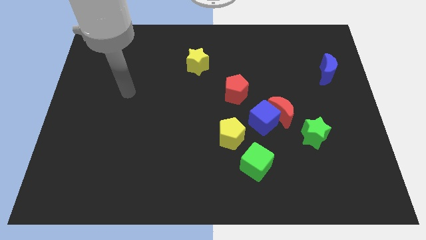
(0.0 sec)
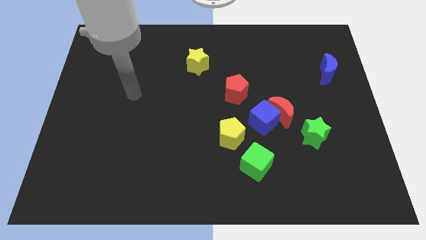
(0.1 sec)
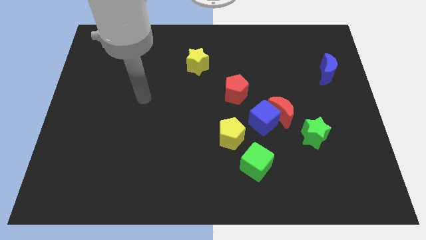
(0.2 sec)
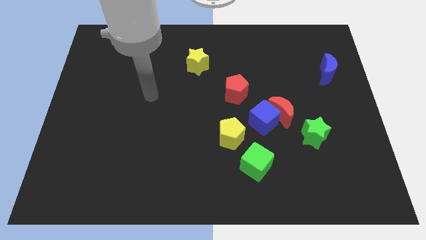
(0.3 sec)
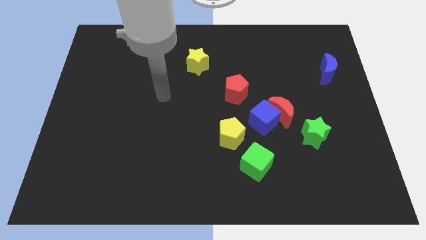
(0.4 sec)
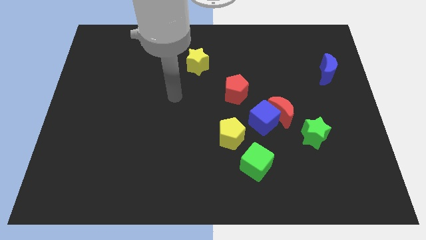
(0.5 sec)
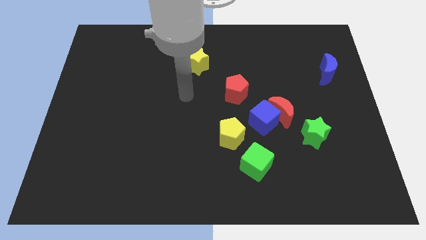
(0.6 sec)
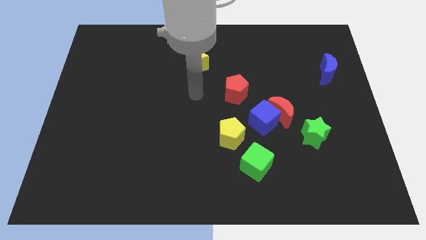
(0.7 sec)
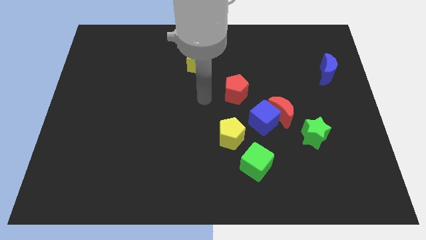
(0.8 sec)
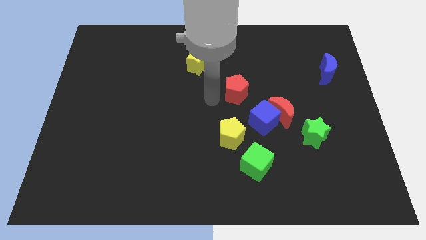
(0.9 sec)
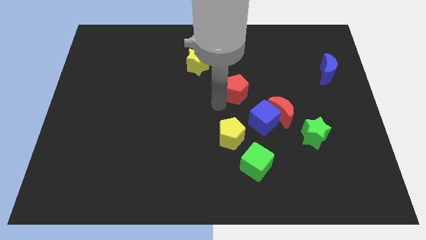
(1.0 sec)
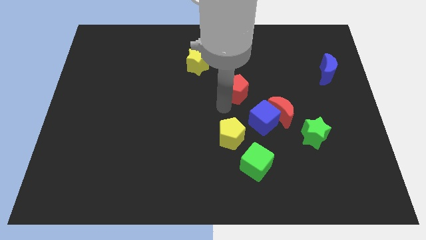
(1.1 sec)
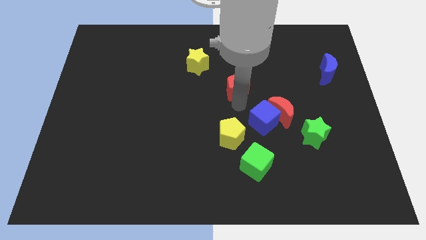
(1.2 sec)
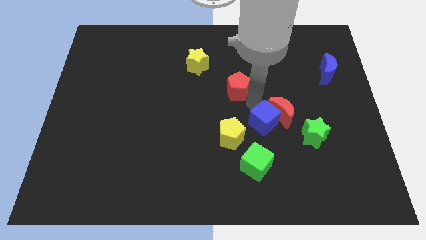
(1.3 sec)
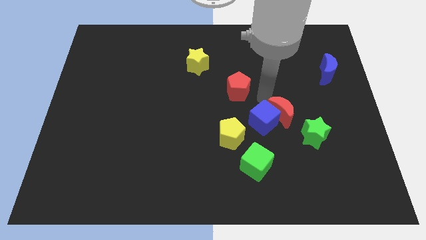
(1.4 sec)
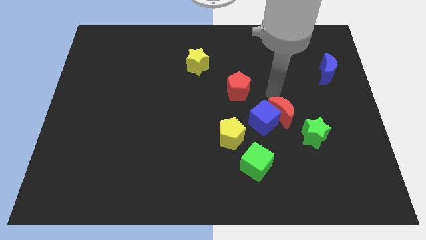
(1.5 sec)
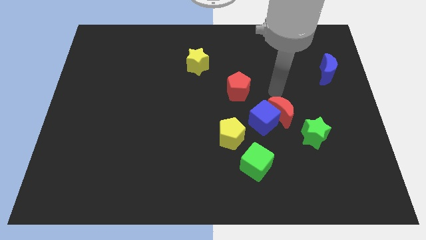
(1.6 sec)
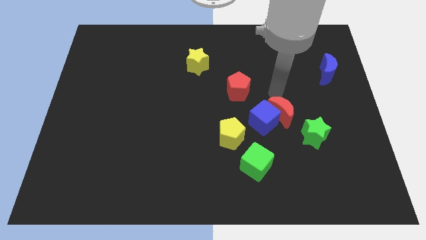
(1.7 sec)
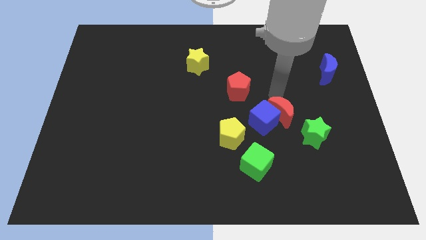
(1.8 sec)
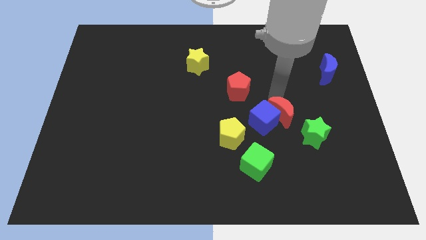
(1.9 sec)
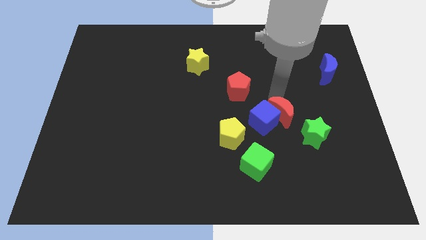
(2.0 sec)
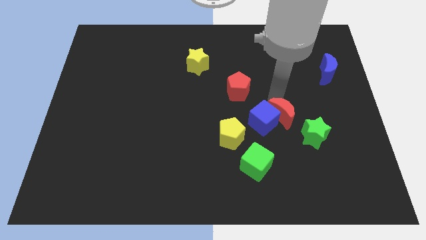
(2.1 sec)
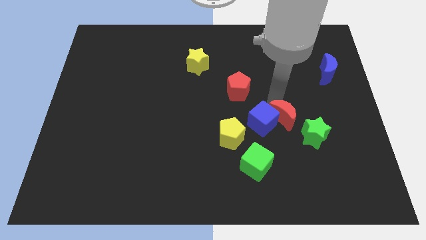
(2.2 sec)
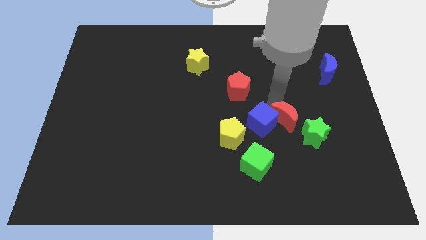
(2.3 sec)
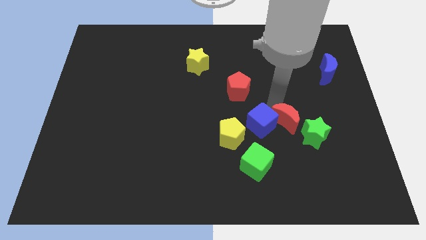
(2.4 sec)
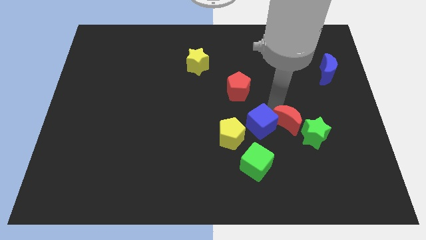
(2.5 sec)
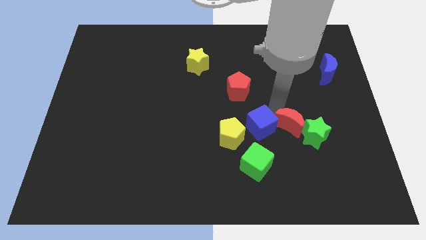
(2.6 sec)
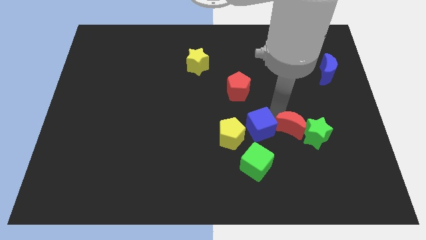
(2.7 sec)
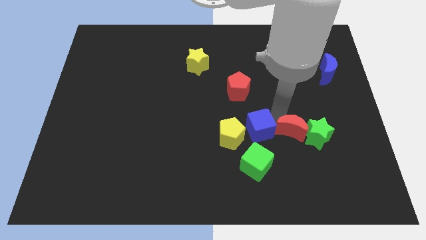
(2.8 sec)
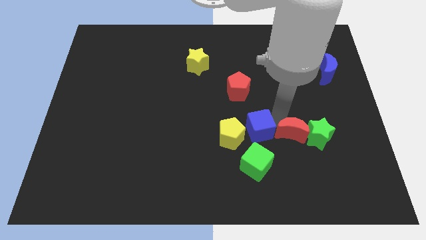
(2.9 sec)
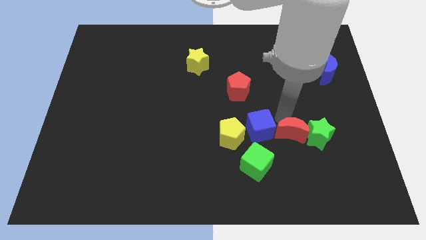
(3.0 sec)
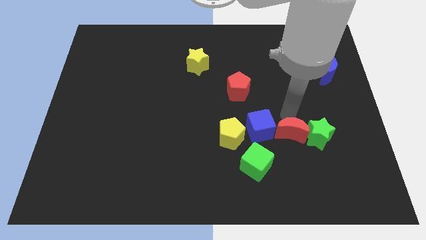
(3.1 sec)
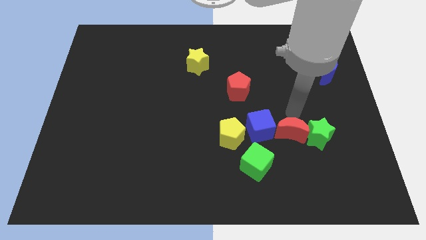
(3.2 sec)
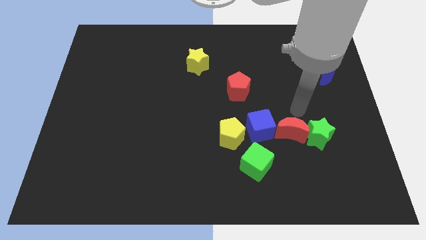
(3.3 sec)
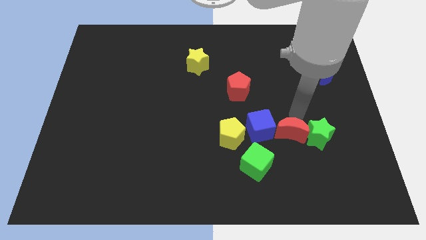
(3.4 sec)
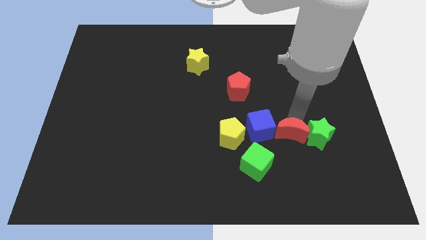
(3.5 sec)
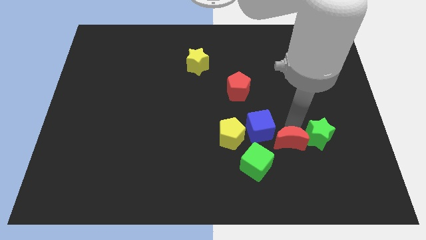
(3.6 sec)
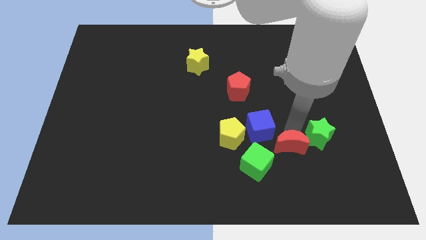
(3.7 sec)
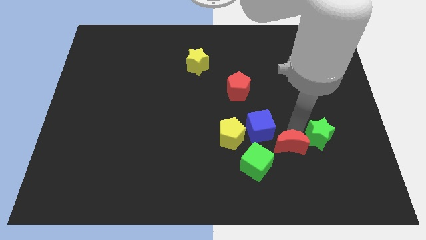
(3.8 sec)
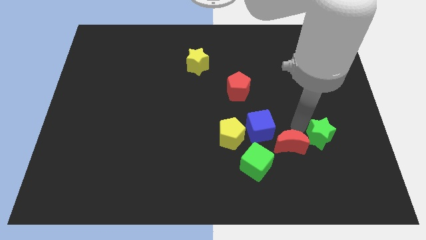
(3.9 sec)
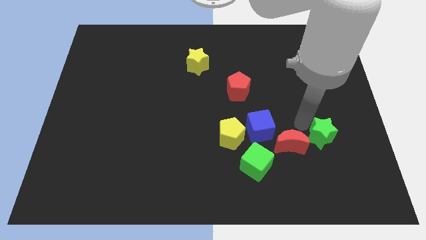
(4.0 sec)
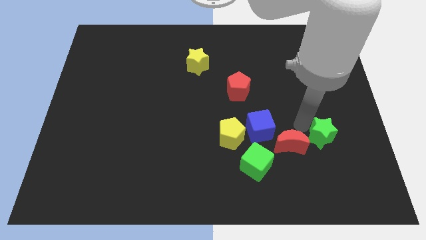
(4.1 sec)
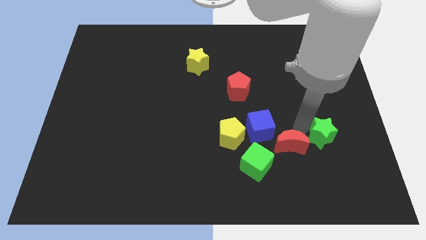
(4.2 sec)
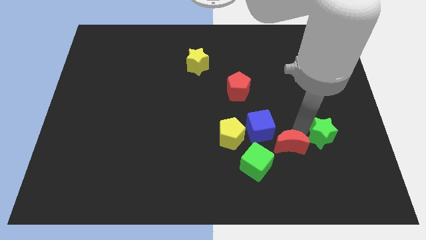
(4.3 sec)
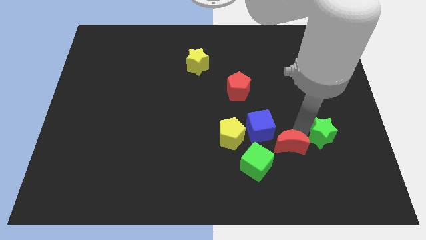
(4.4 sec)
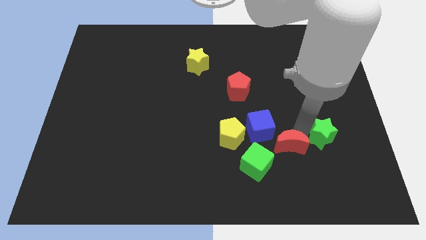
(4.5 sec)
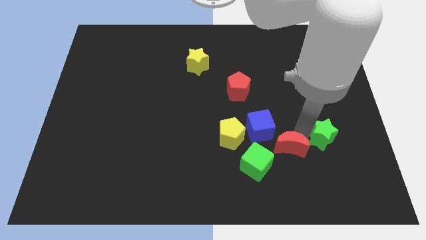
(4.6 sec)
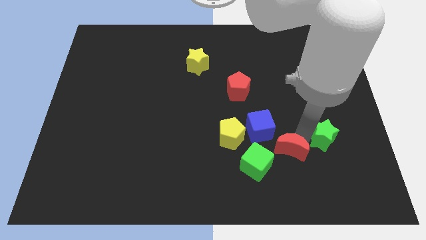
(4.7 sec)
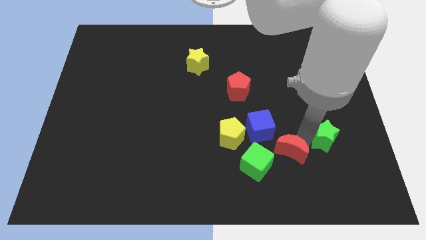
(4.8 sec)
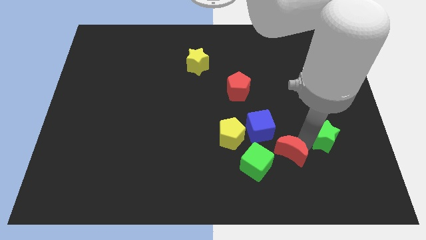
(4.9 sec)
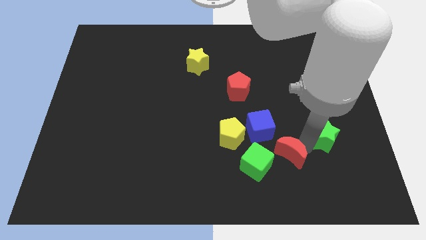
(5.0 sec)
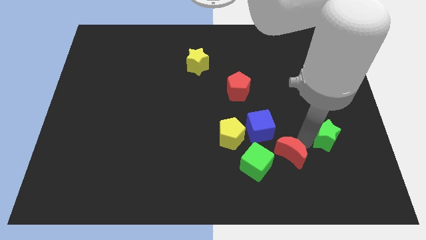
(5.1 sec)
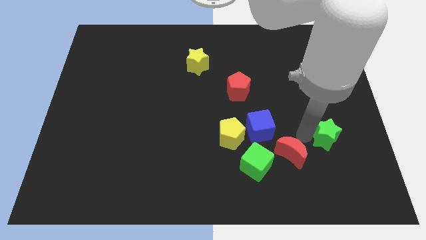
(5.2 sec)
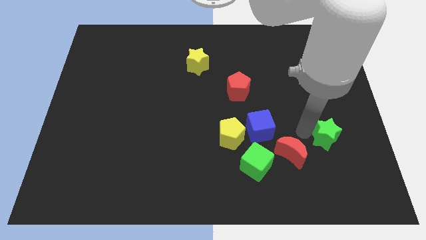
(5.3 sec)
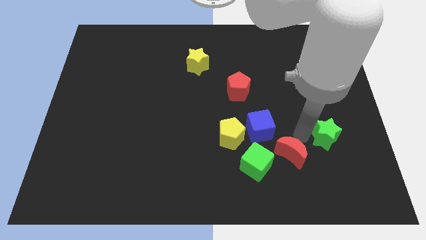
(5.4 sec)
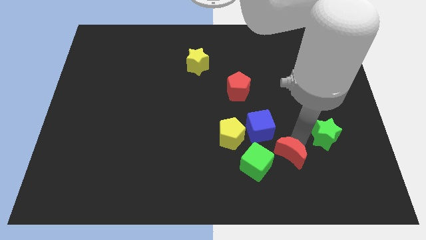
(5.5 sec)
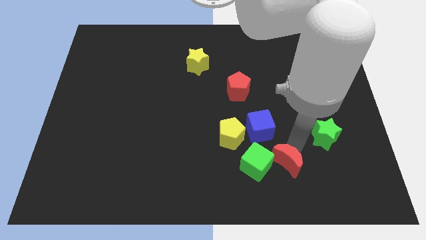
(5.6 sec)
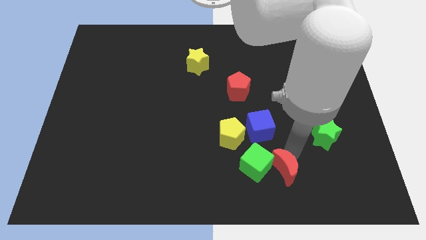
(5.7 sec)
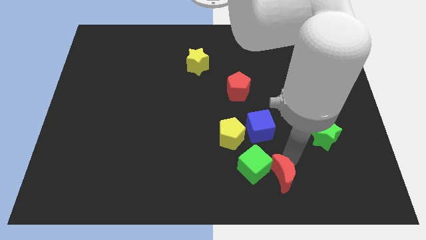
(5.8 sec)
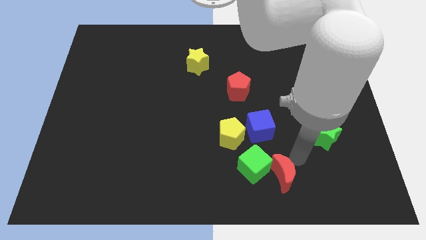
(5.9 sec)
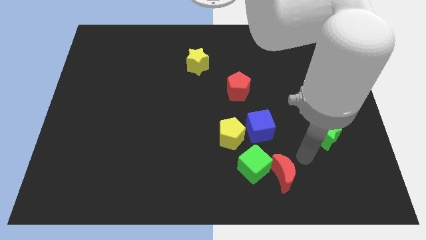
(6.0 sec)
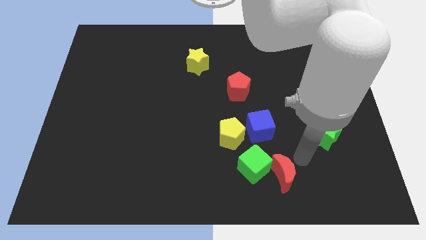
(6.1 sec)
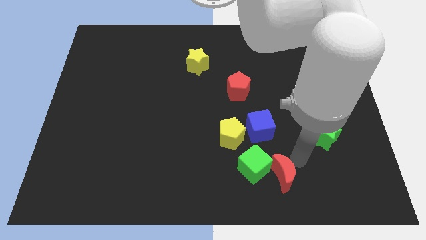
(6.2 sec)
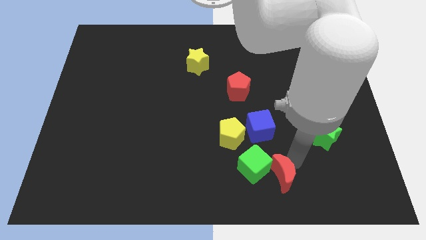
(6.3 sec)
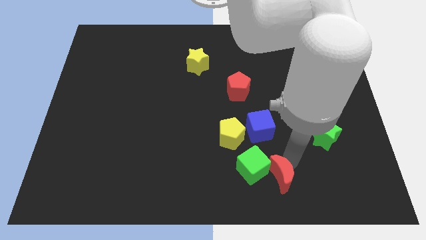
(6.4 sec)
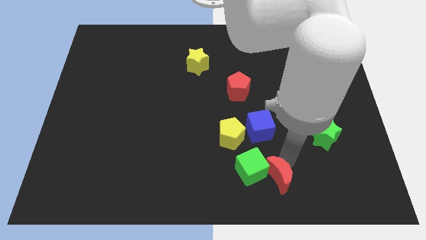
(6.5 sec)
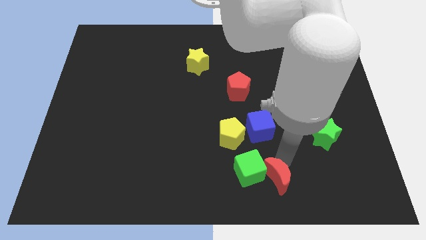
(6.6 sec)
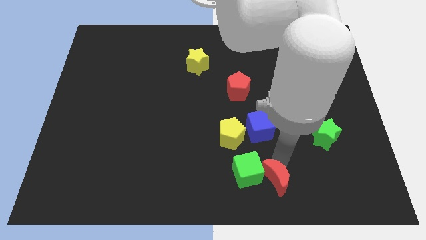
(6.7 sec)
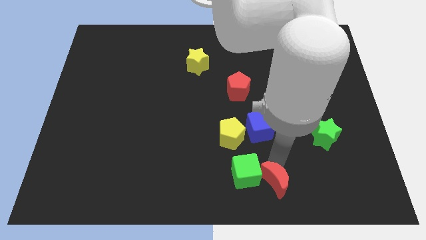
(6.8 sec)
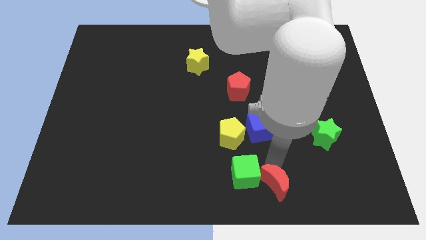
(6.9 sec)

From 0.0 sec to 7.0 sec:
move the red moon to the bottom side
